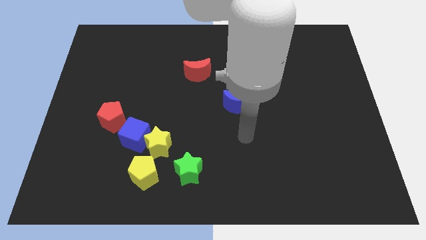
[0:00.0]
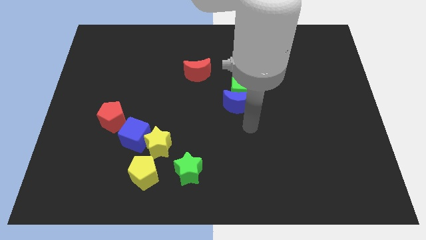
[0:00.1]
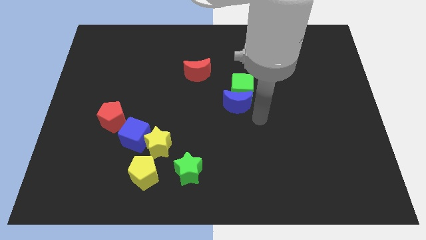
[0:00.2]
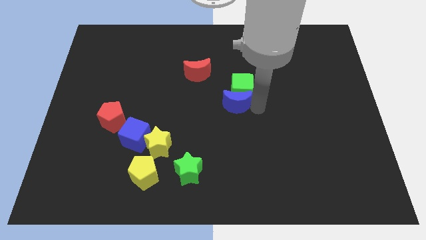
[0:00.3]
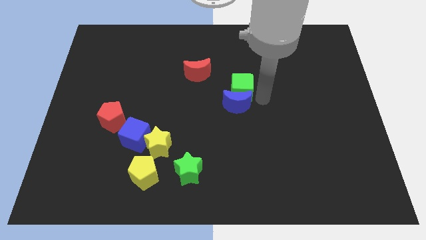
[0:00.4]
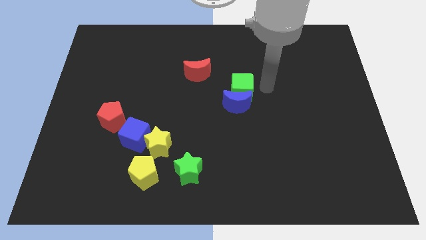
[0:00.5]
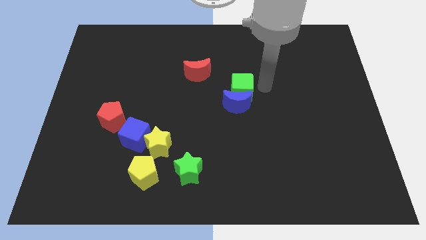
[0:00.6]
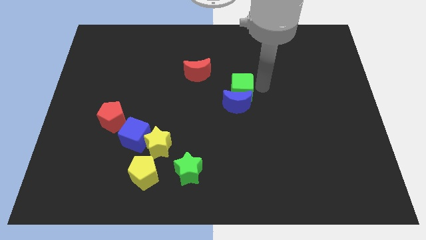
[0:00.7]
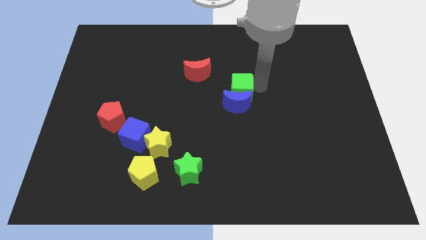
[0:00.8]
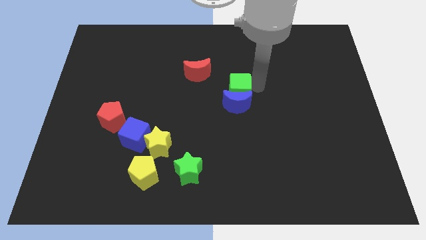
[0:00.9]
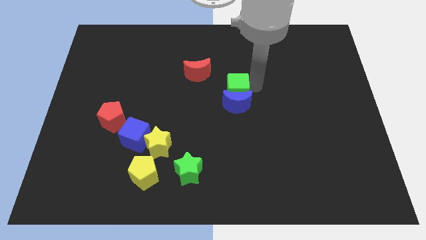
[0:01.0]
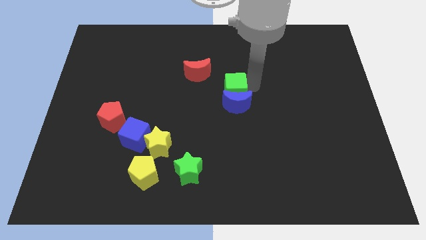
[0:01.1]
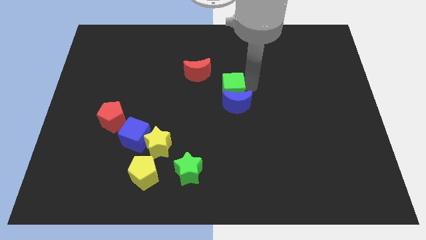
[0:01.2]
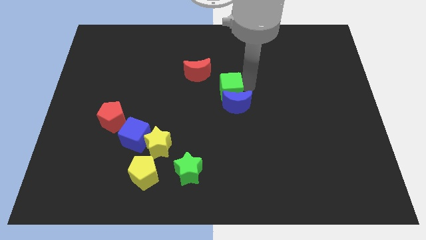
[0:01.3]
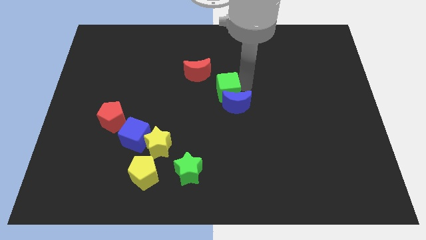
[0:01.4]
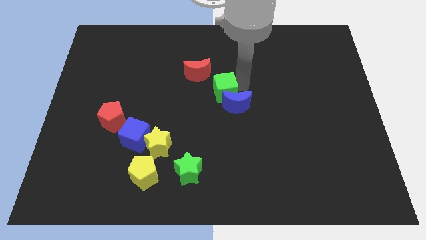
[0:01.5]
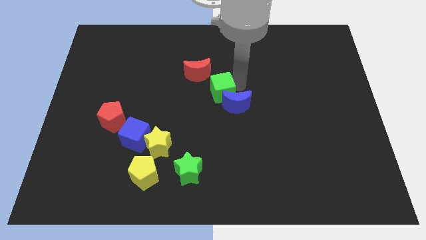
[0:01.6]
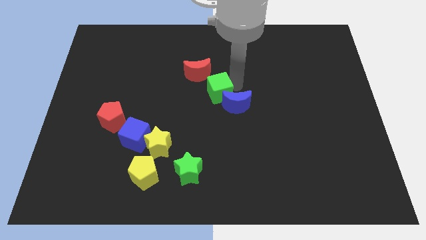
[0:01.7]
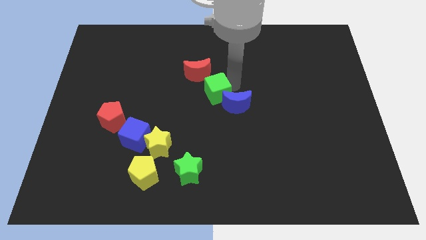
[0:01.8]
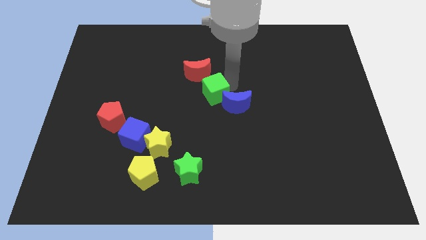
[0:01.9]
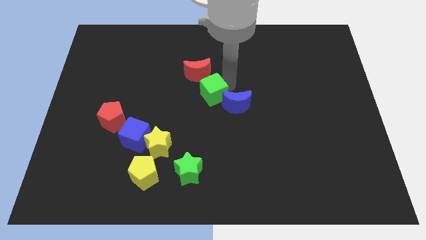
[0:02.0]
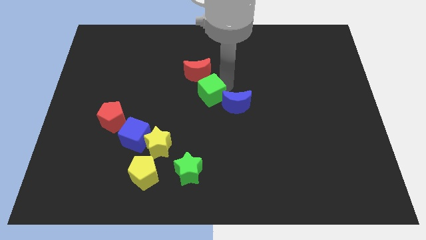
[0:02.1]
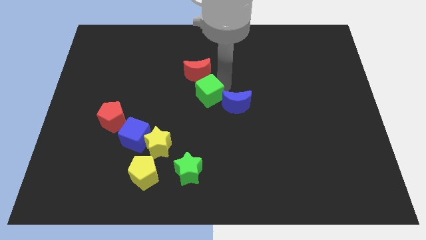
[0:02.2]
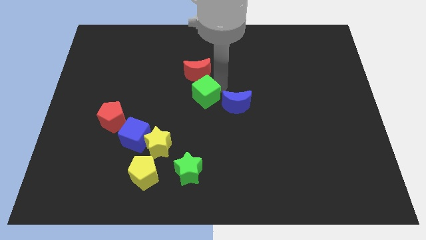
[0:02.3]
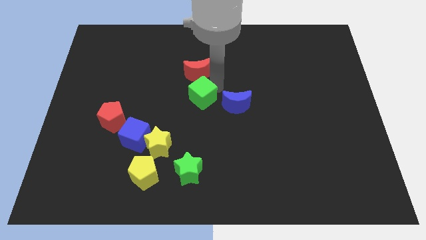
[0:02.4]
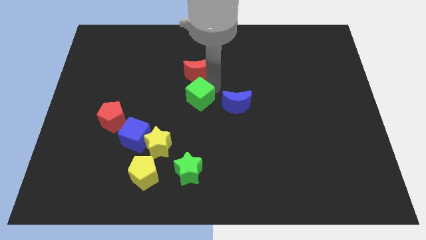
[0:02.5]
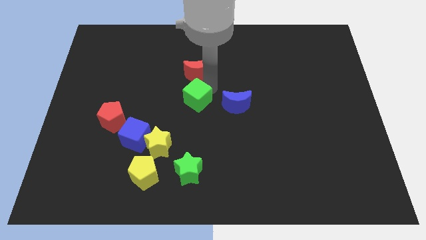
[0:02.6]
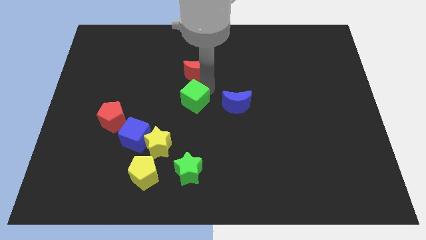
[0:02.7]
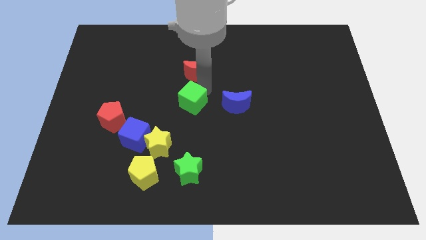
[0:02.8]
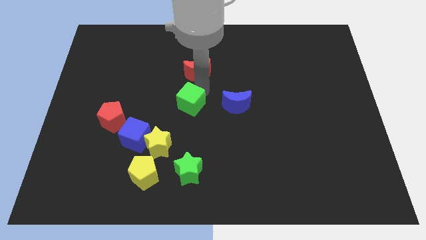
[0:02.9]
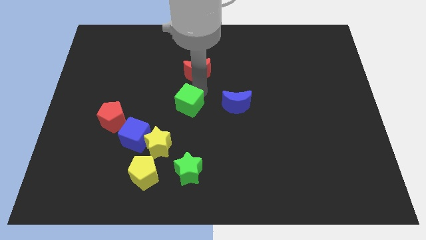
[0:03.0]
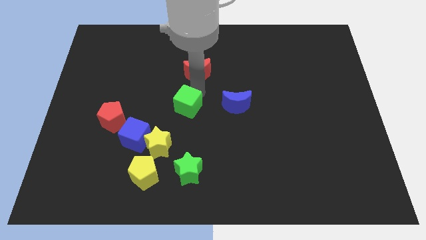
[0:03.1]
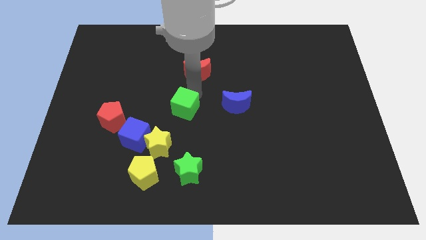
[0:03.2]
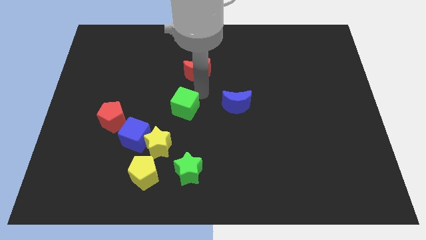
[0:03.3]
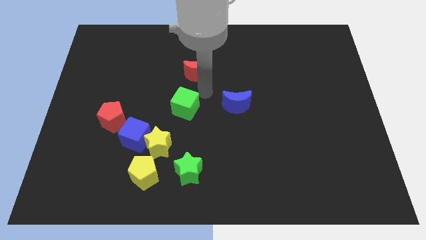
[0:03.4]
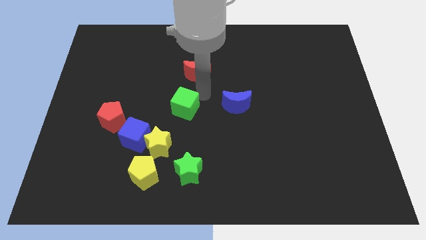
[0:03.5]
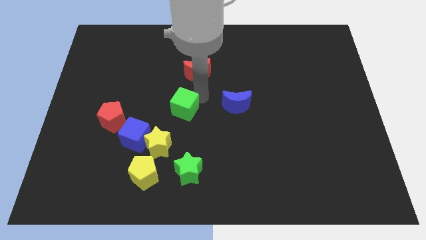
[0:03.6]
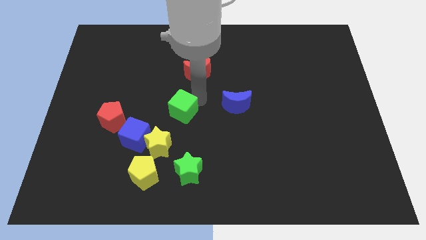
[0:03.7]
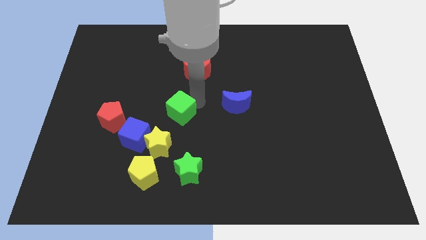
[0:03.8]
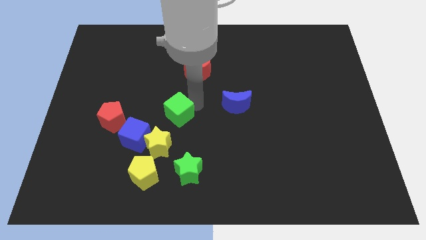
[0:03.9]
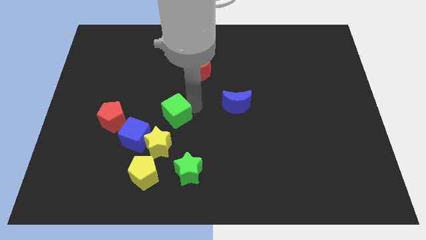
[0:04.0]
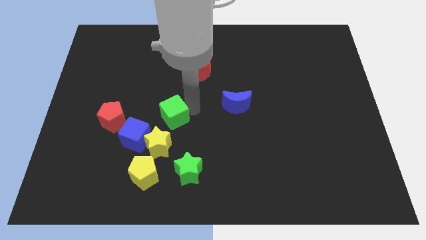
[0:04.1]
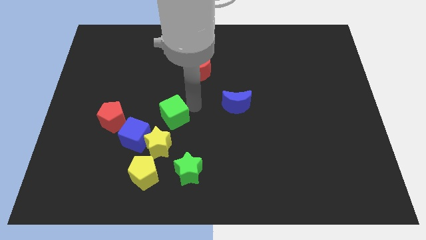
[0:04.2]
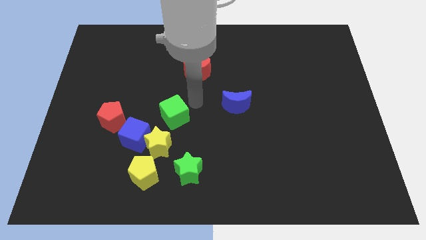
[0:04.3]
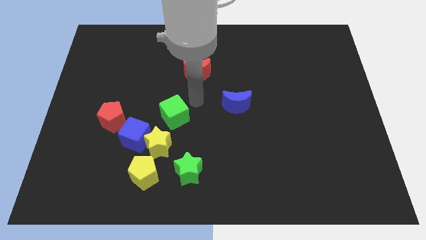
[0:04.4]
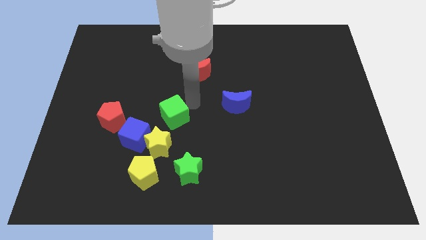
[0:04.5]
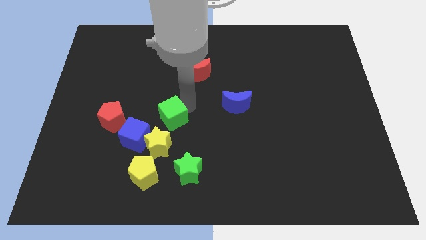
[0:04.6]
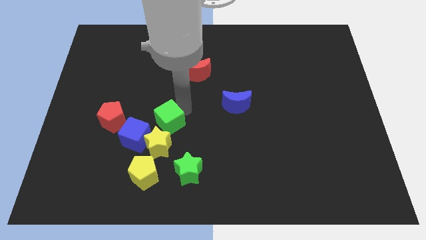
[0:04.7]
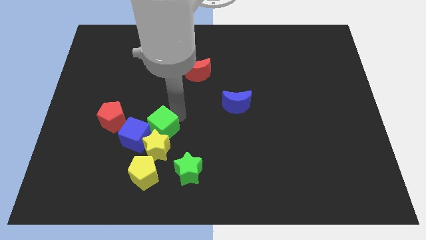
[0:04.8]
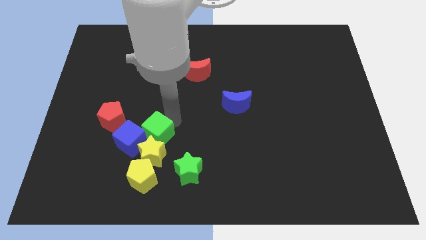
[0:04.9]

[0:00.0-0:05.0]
slide the green cube towards the blue cube

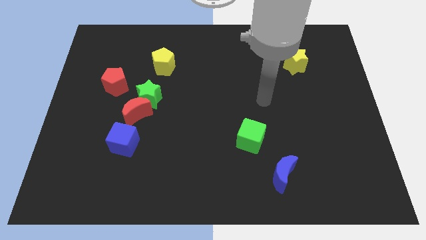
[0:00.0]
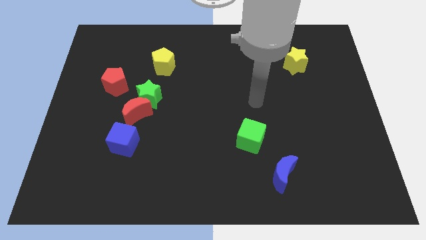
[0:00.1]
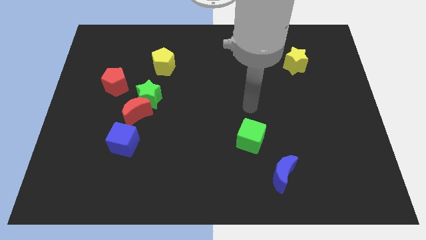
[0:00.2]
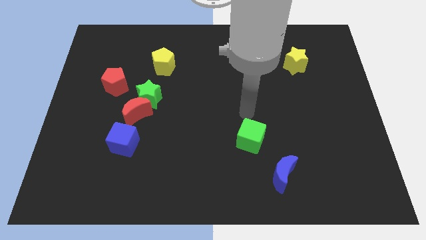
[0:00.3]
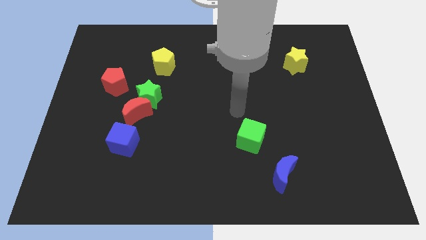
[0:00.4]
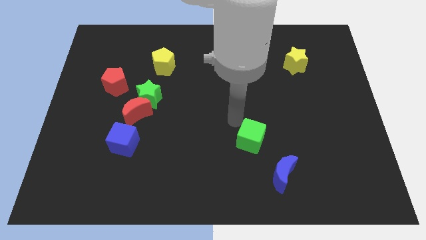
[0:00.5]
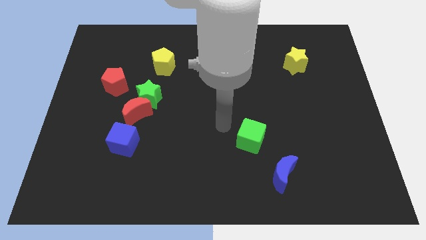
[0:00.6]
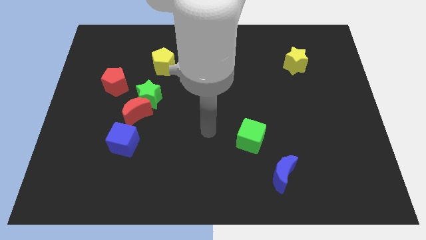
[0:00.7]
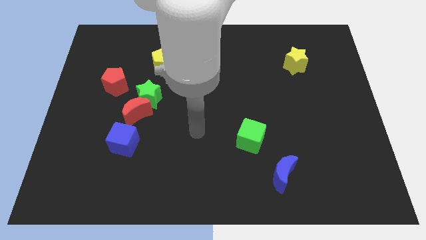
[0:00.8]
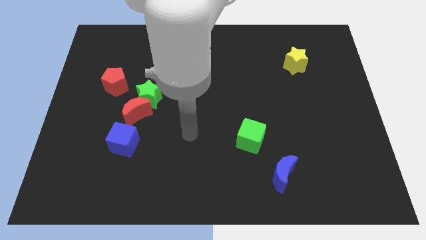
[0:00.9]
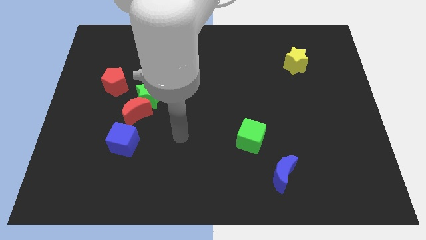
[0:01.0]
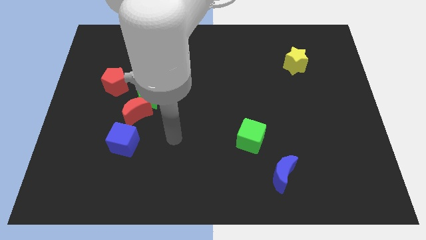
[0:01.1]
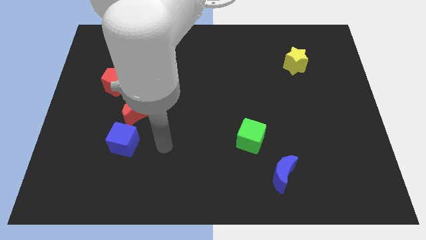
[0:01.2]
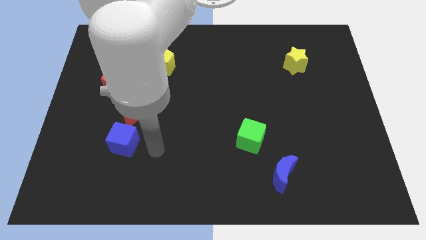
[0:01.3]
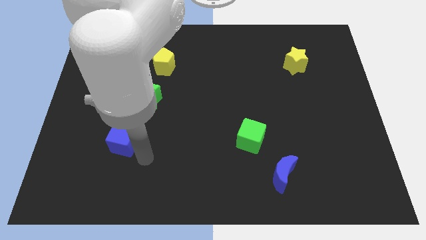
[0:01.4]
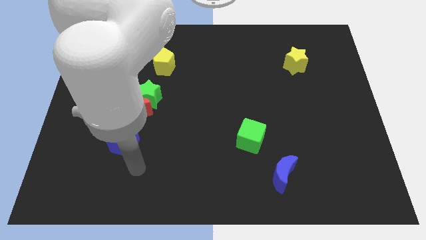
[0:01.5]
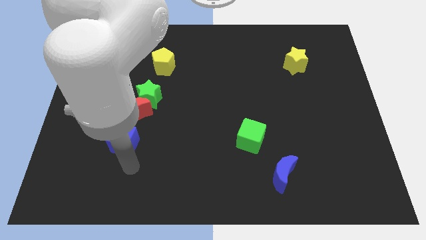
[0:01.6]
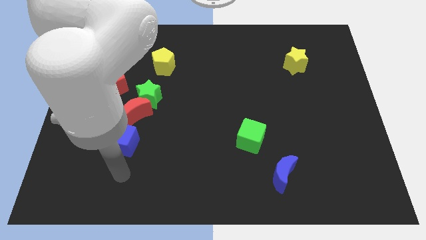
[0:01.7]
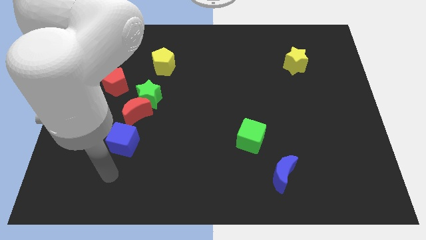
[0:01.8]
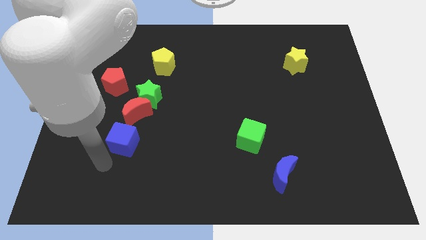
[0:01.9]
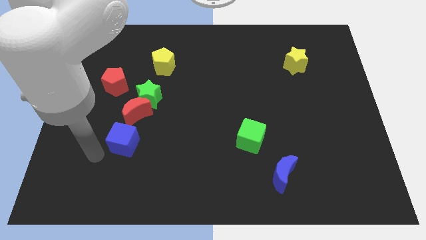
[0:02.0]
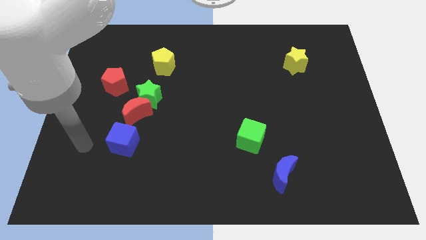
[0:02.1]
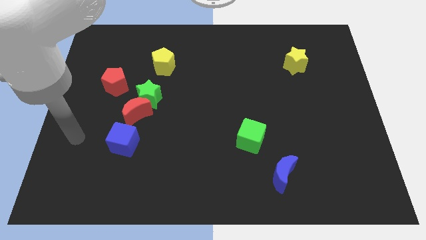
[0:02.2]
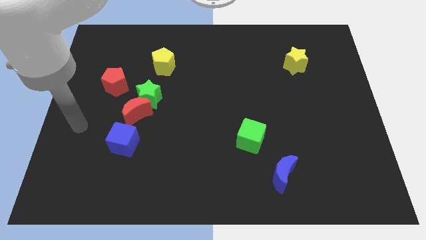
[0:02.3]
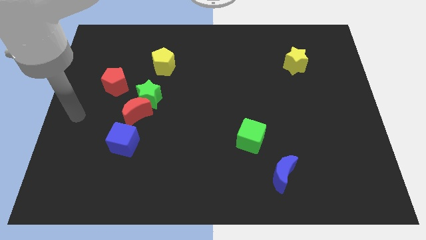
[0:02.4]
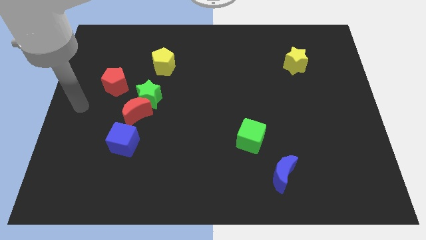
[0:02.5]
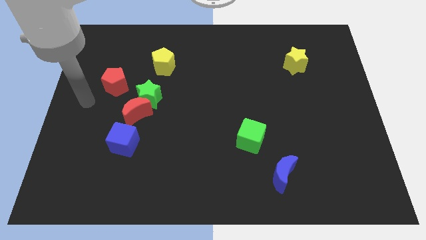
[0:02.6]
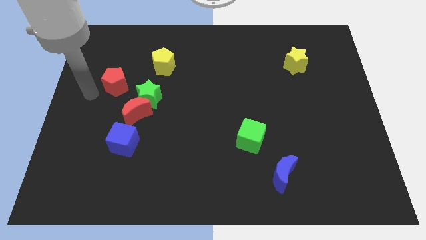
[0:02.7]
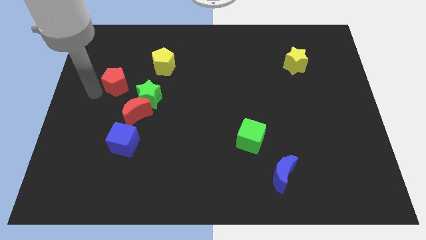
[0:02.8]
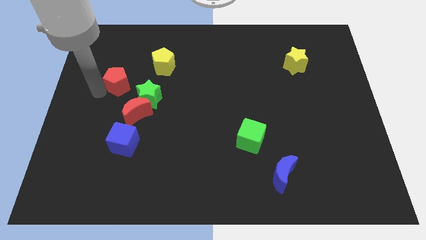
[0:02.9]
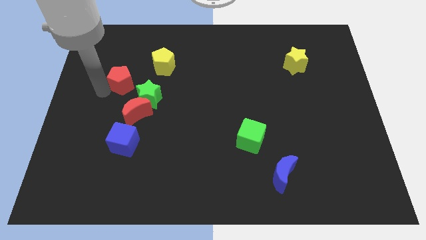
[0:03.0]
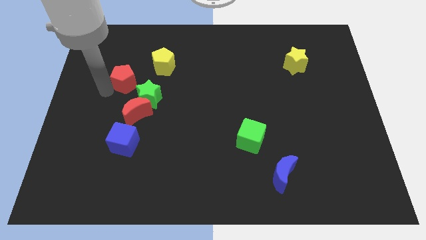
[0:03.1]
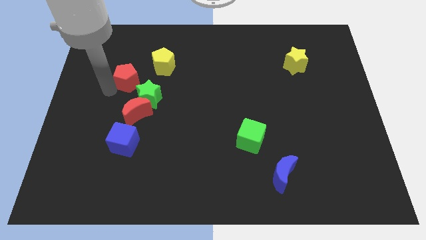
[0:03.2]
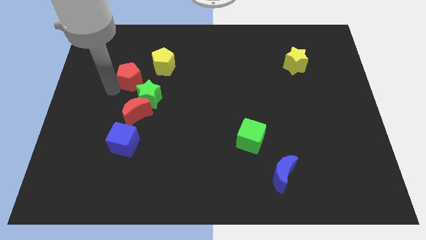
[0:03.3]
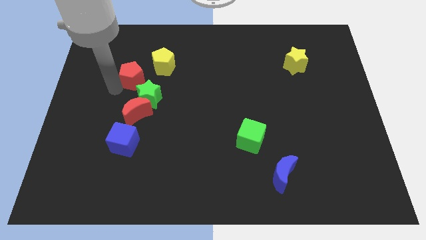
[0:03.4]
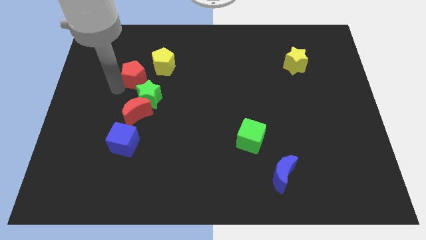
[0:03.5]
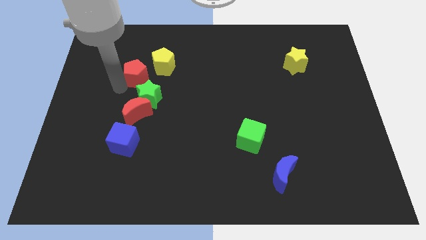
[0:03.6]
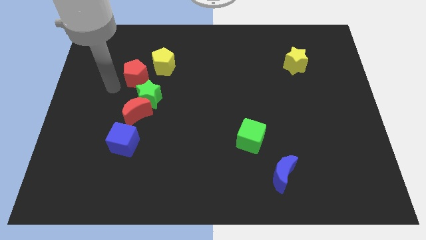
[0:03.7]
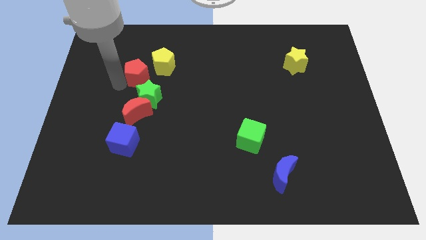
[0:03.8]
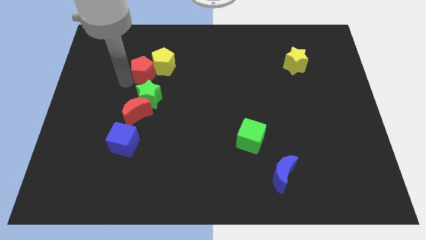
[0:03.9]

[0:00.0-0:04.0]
push the red pentagon close to the yellow pentagon
